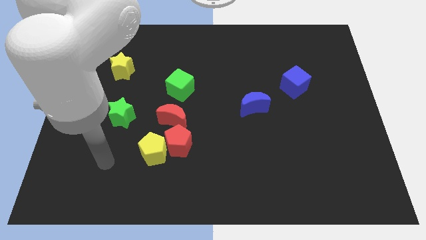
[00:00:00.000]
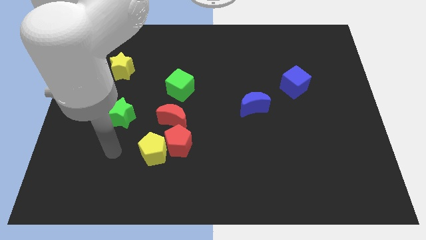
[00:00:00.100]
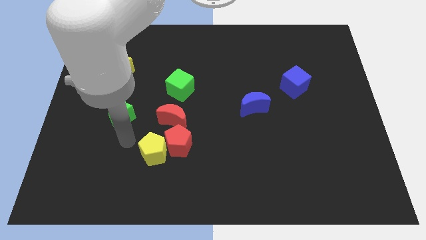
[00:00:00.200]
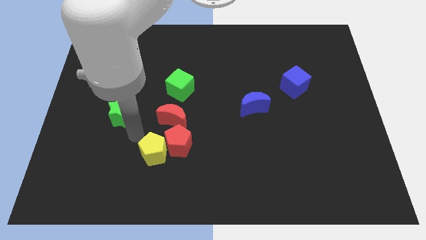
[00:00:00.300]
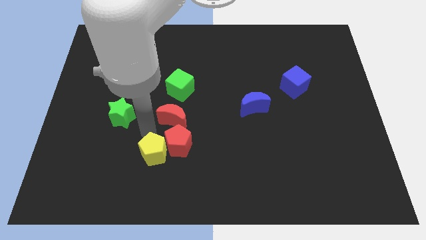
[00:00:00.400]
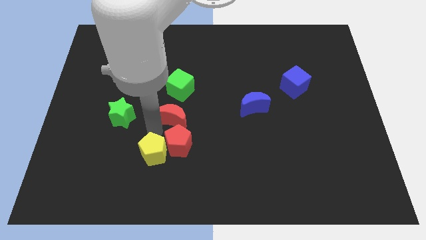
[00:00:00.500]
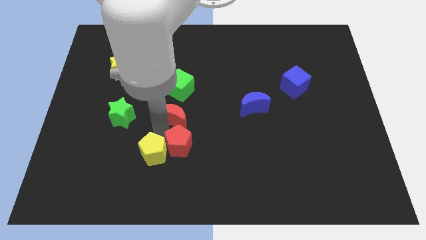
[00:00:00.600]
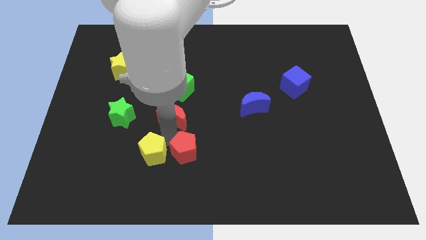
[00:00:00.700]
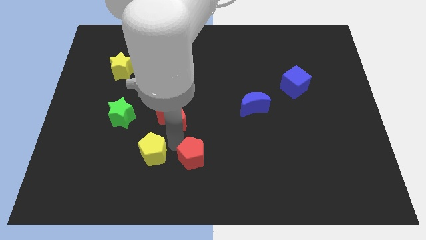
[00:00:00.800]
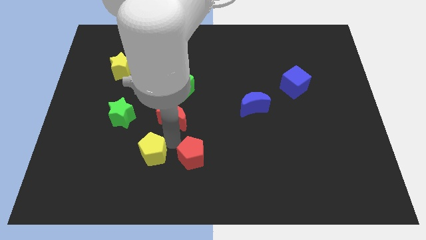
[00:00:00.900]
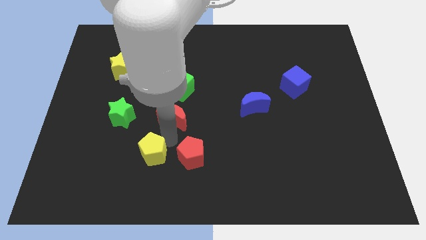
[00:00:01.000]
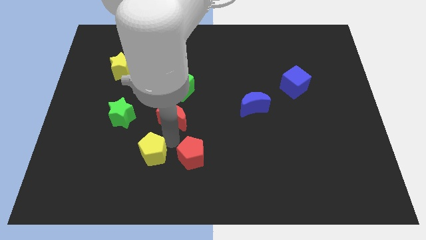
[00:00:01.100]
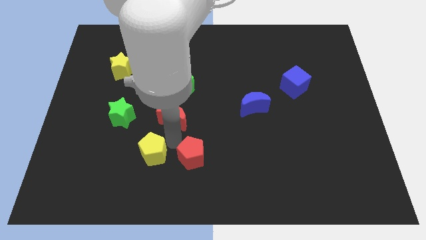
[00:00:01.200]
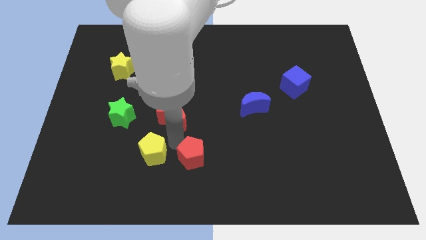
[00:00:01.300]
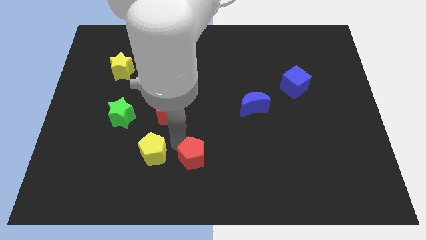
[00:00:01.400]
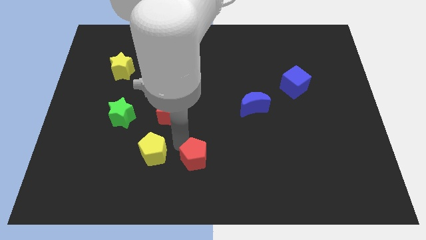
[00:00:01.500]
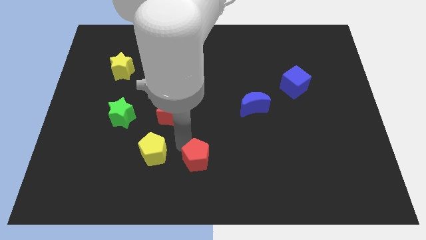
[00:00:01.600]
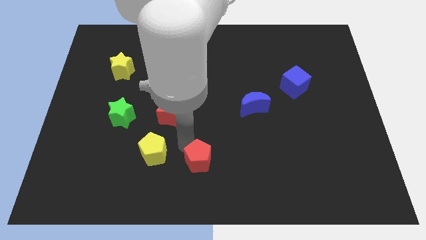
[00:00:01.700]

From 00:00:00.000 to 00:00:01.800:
separate the red pentagon from the yellow pentagon and red moon

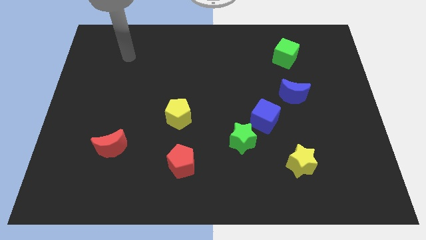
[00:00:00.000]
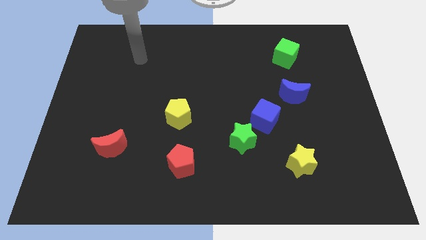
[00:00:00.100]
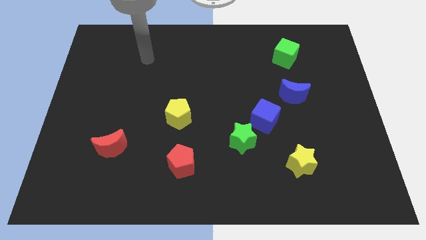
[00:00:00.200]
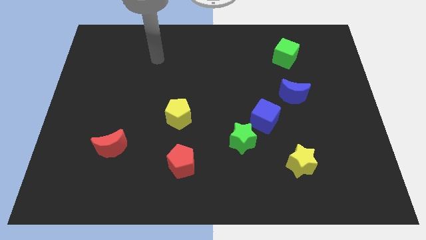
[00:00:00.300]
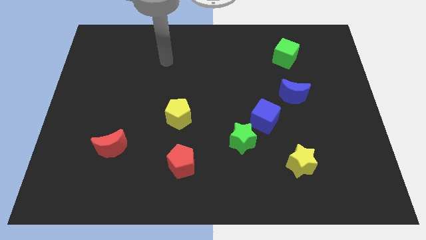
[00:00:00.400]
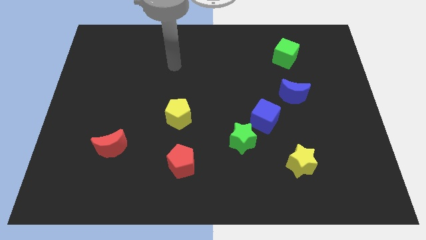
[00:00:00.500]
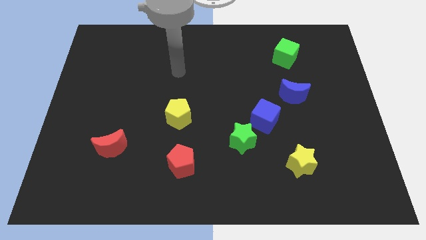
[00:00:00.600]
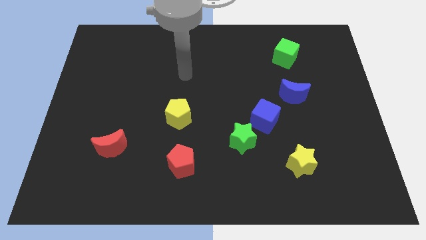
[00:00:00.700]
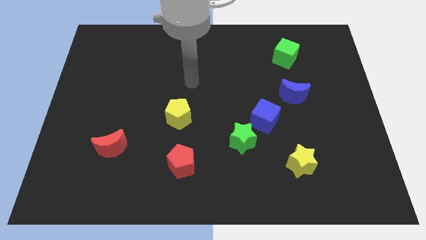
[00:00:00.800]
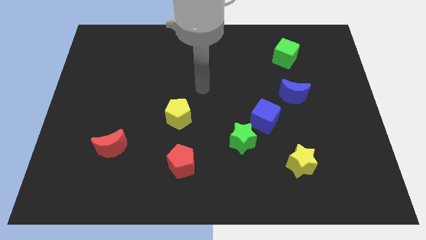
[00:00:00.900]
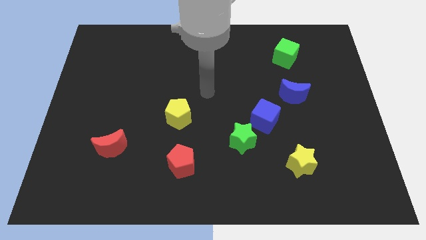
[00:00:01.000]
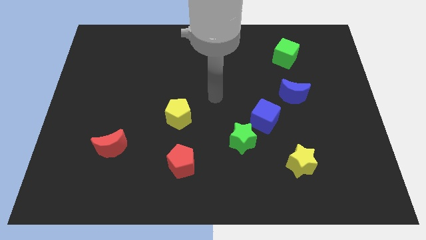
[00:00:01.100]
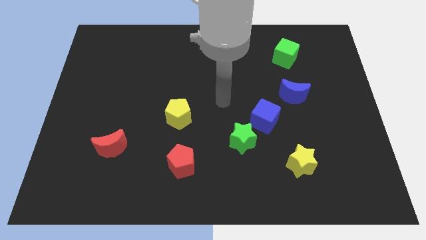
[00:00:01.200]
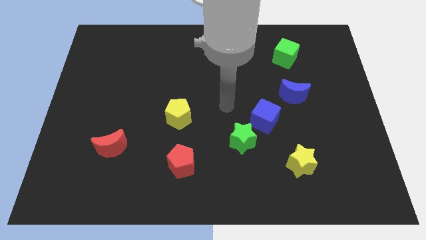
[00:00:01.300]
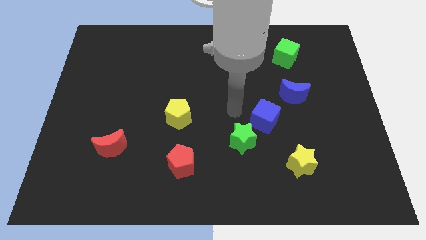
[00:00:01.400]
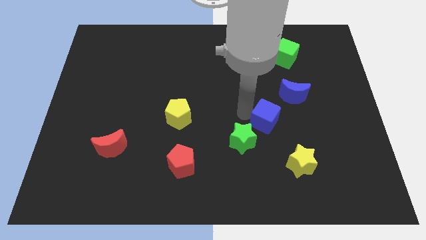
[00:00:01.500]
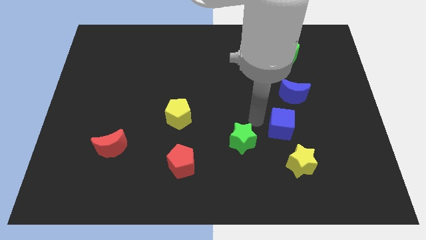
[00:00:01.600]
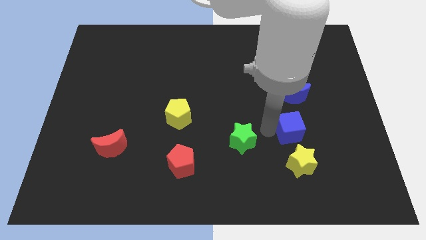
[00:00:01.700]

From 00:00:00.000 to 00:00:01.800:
move the green star away from the blue cube

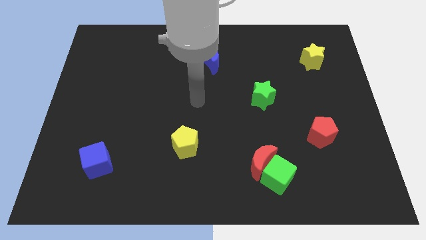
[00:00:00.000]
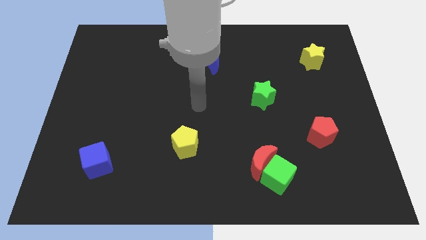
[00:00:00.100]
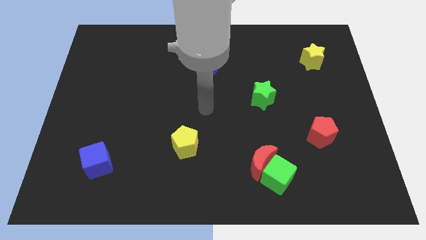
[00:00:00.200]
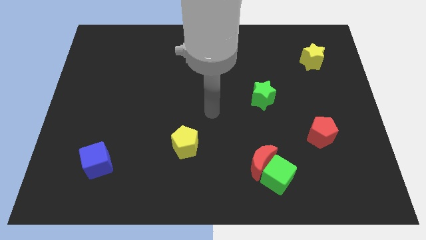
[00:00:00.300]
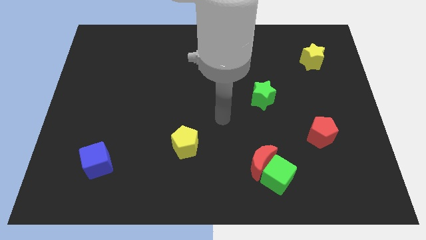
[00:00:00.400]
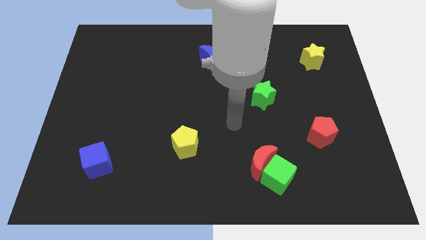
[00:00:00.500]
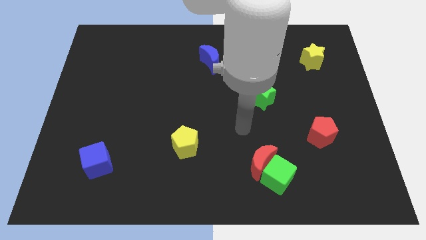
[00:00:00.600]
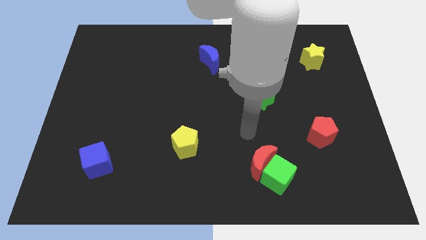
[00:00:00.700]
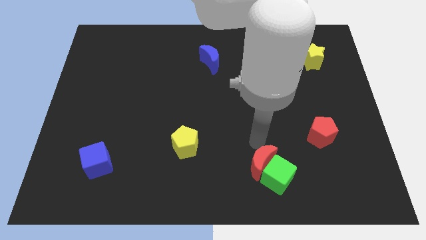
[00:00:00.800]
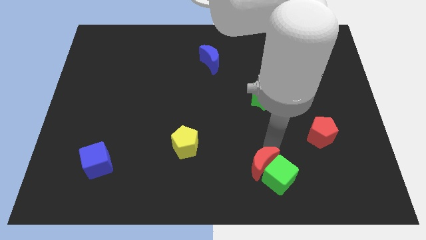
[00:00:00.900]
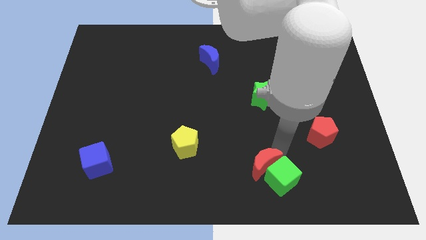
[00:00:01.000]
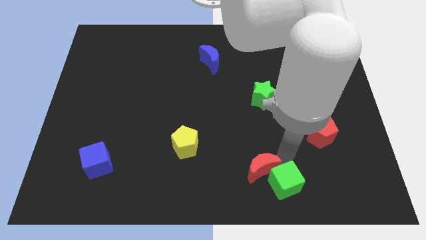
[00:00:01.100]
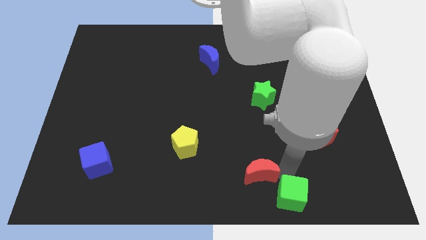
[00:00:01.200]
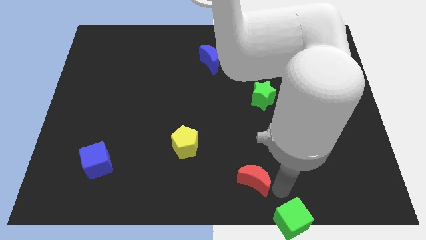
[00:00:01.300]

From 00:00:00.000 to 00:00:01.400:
separate the red moon from the green cube

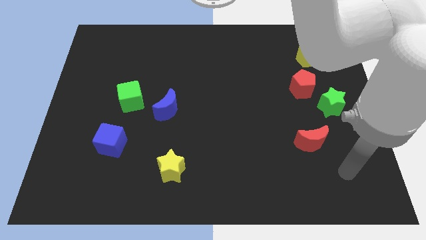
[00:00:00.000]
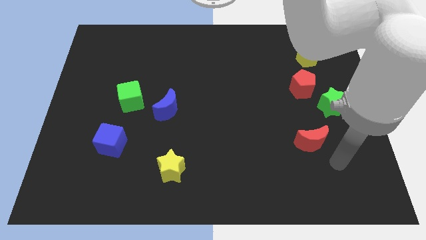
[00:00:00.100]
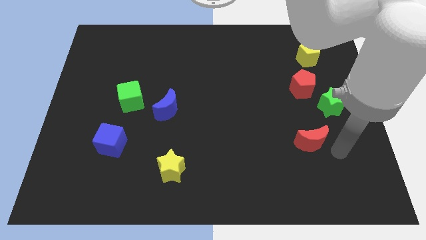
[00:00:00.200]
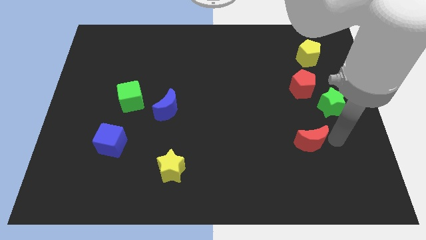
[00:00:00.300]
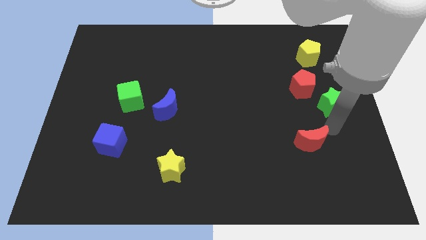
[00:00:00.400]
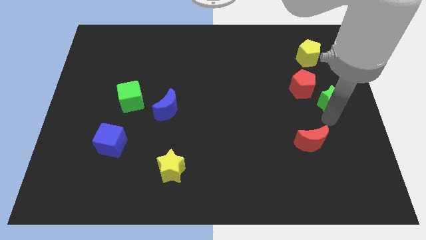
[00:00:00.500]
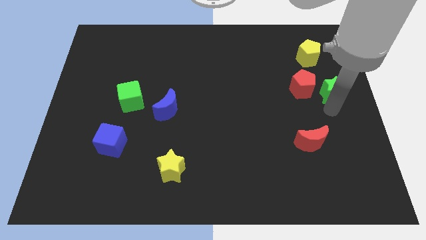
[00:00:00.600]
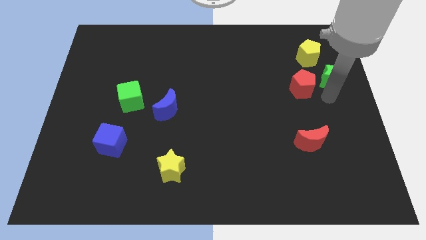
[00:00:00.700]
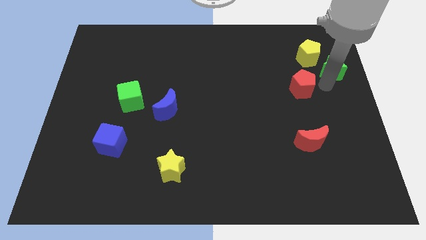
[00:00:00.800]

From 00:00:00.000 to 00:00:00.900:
move the red pentagon away from the green star

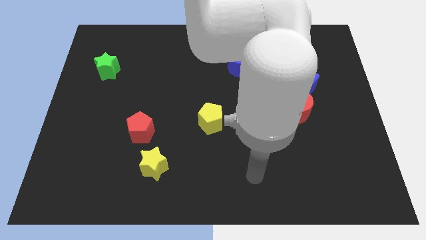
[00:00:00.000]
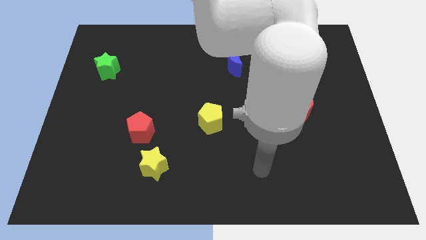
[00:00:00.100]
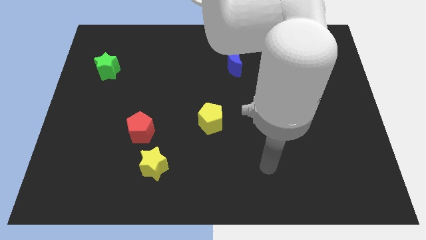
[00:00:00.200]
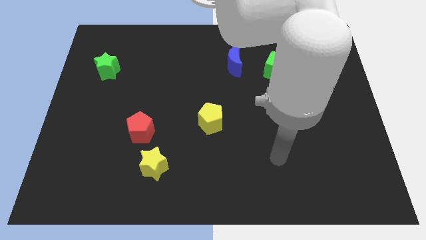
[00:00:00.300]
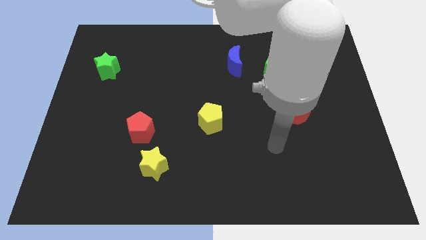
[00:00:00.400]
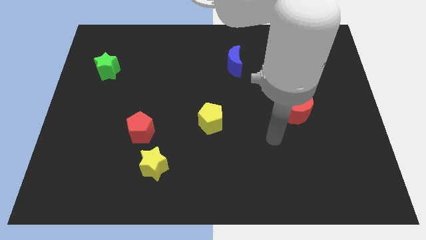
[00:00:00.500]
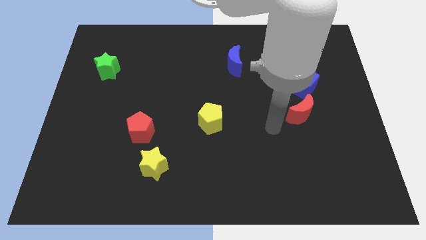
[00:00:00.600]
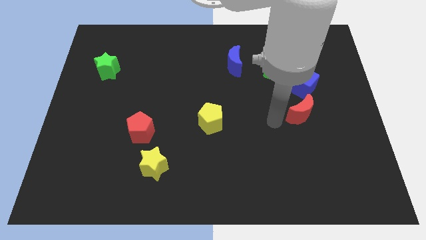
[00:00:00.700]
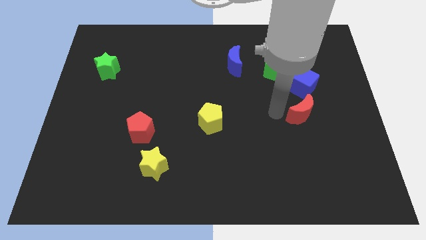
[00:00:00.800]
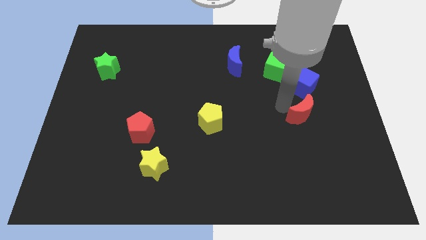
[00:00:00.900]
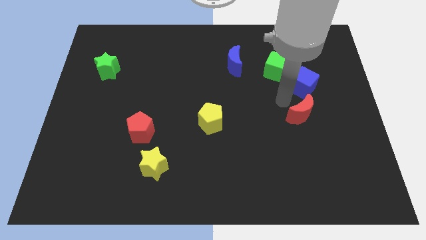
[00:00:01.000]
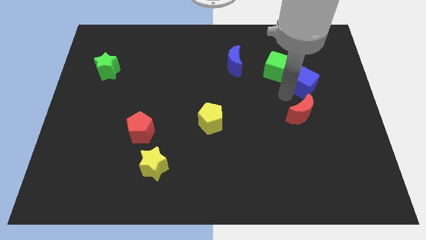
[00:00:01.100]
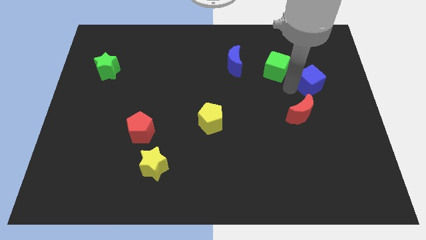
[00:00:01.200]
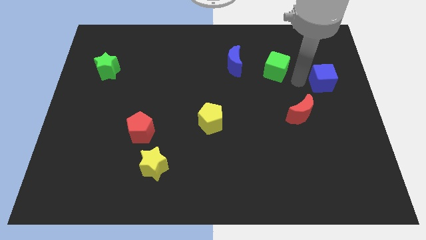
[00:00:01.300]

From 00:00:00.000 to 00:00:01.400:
move the green cube away from the blue cube

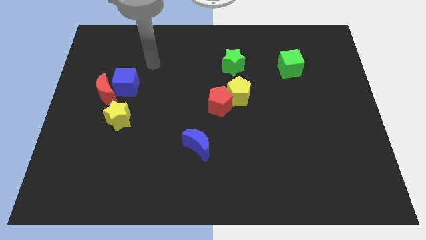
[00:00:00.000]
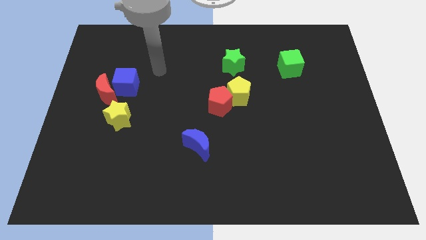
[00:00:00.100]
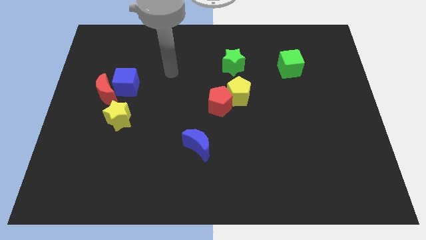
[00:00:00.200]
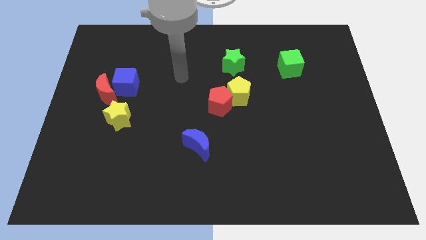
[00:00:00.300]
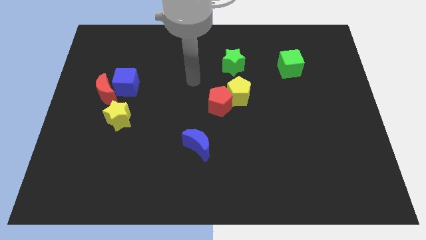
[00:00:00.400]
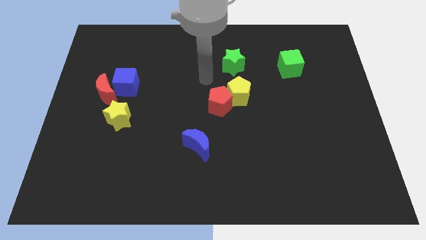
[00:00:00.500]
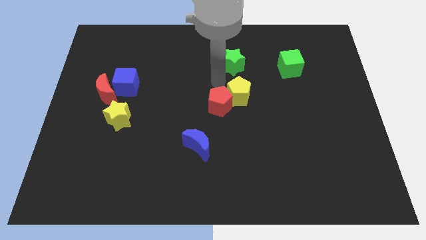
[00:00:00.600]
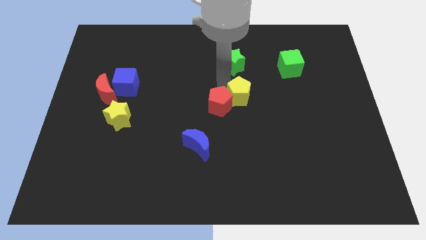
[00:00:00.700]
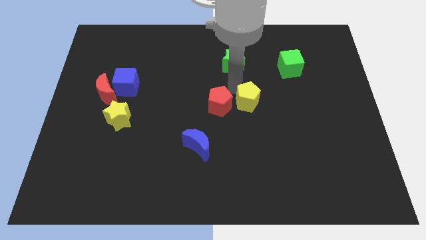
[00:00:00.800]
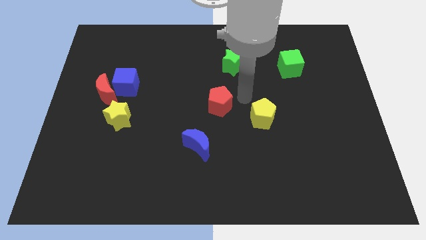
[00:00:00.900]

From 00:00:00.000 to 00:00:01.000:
separate the red pentagon from the yellow pentagon

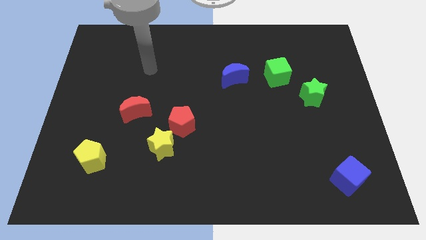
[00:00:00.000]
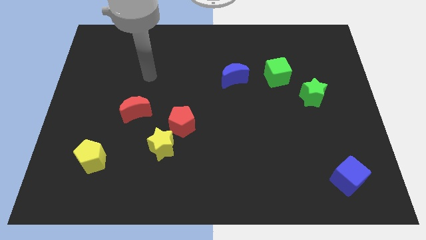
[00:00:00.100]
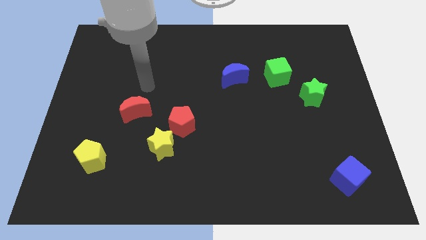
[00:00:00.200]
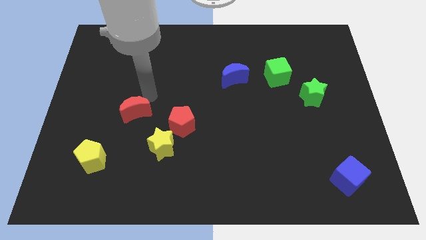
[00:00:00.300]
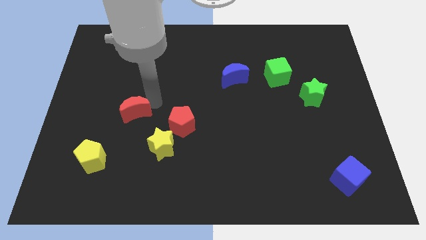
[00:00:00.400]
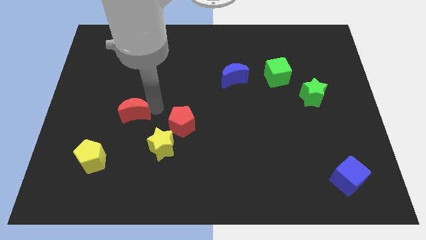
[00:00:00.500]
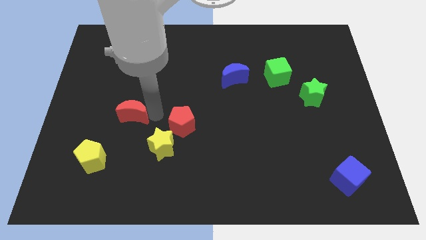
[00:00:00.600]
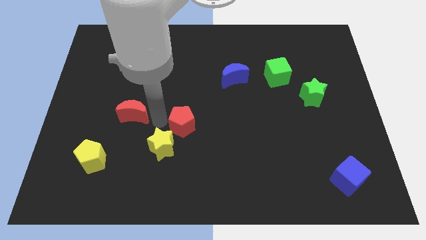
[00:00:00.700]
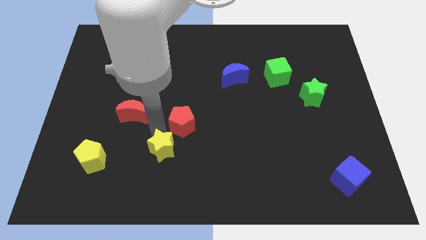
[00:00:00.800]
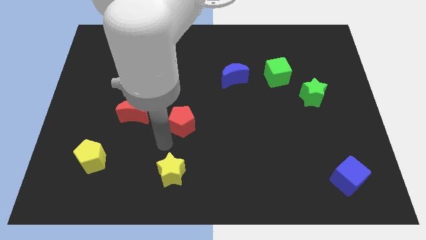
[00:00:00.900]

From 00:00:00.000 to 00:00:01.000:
pull the red pentagon apart from the yellow star
